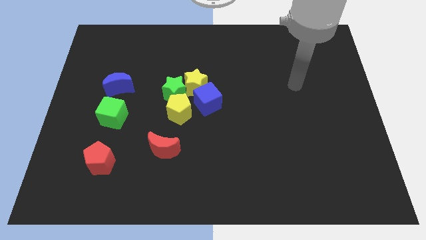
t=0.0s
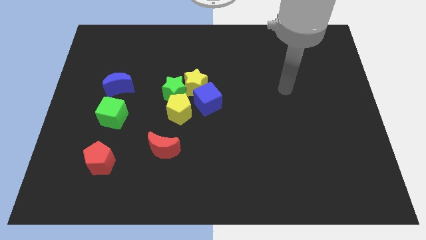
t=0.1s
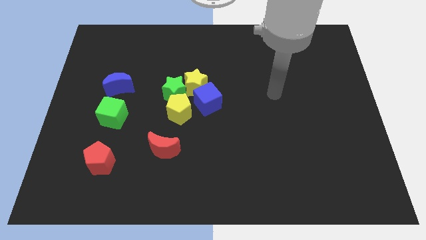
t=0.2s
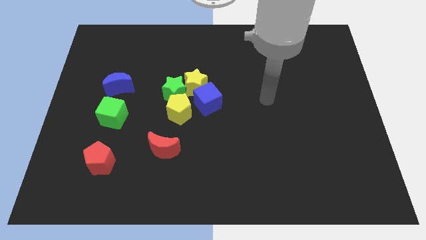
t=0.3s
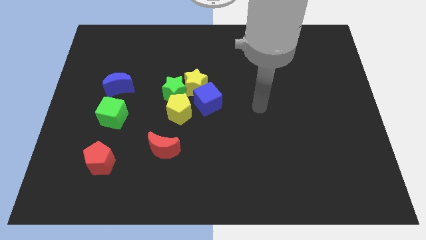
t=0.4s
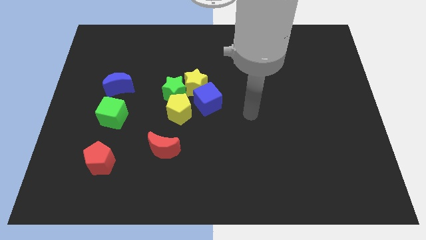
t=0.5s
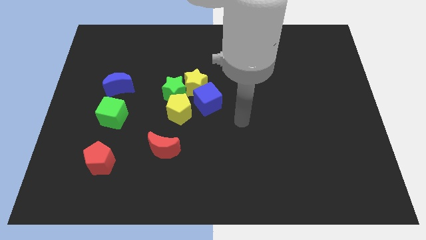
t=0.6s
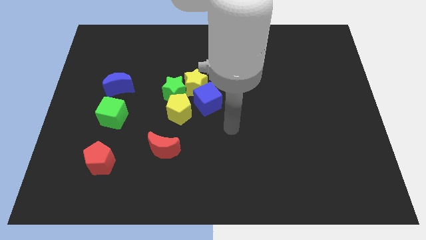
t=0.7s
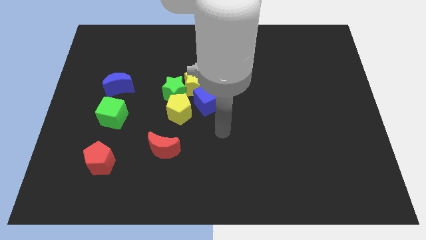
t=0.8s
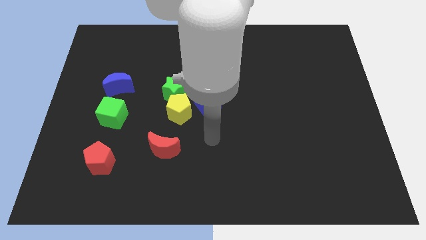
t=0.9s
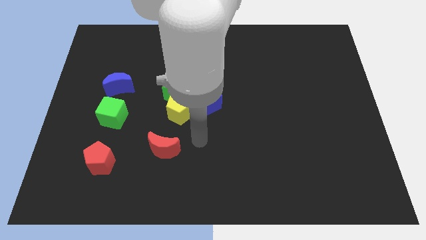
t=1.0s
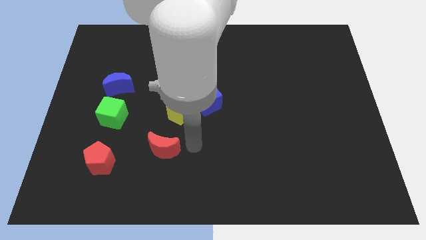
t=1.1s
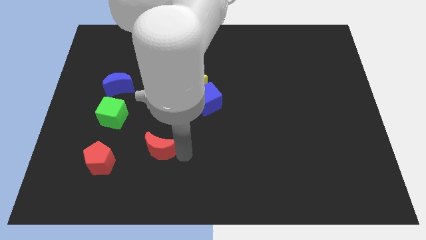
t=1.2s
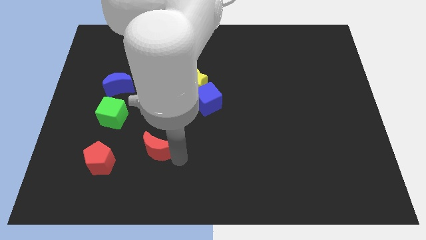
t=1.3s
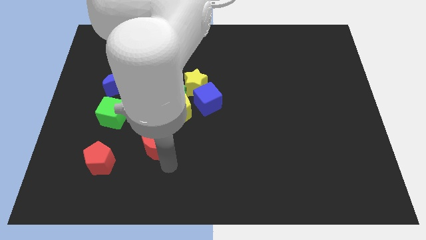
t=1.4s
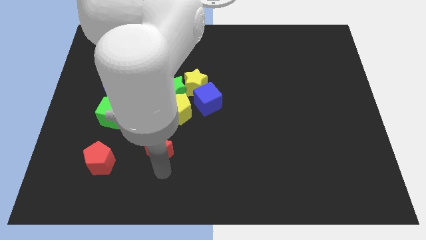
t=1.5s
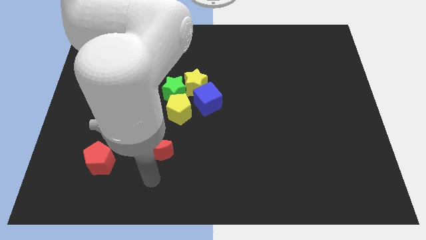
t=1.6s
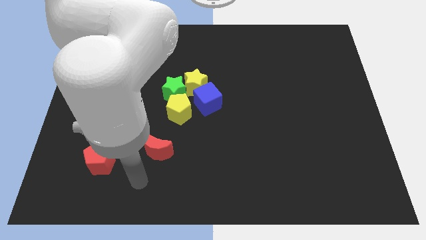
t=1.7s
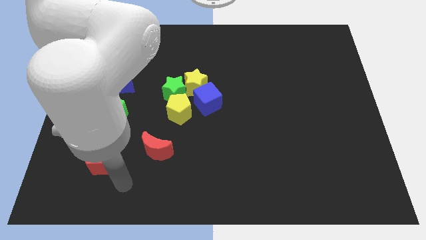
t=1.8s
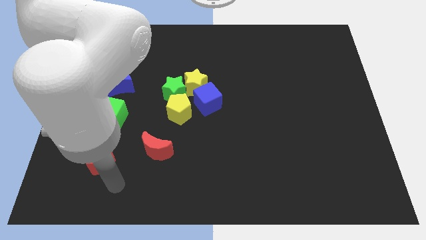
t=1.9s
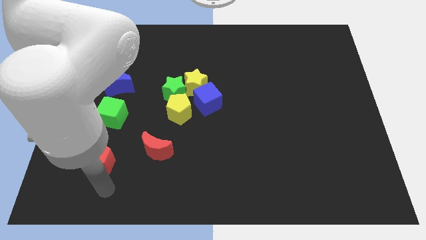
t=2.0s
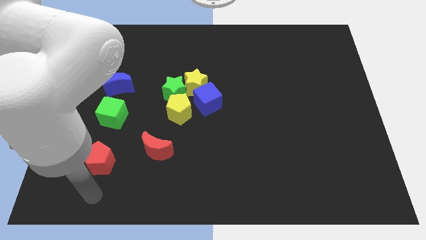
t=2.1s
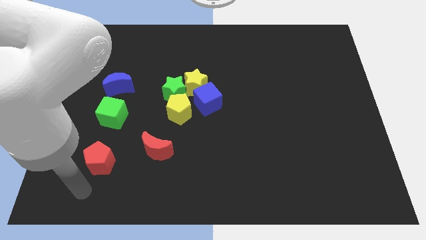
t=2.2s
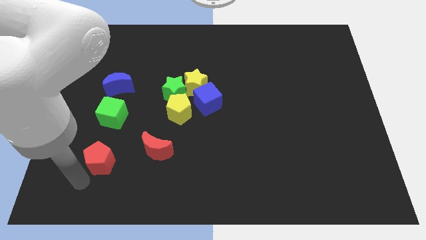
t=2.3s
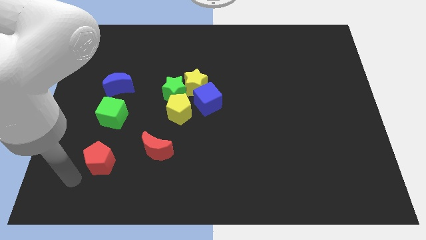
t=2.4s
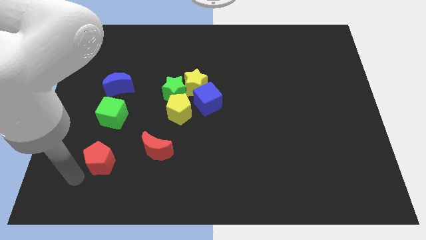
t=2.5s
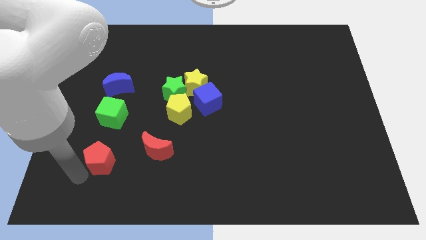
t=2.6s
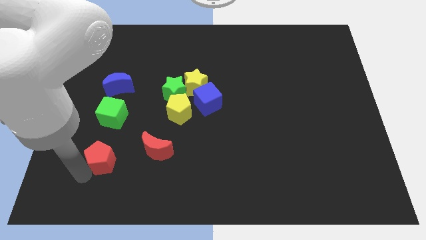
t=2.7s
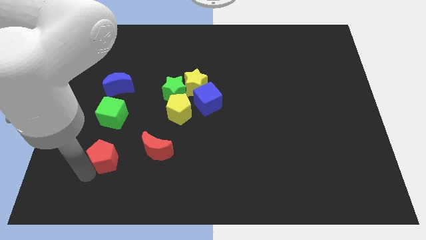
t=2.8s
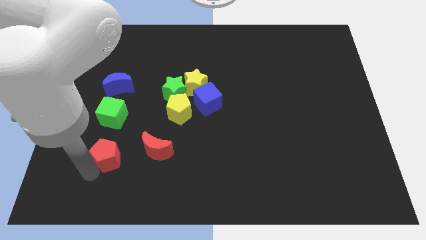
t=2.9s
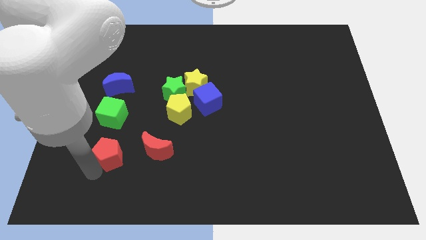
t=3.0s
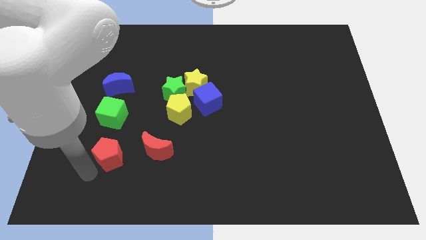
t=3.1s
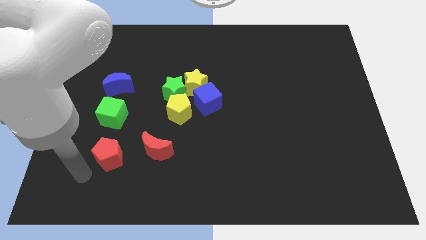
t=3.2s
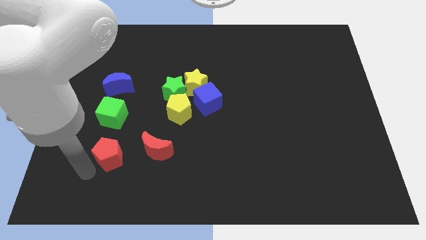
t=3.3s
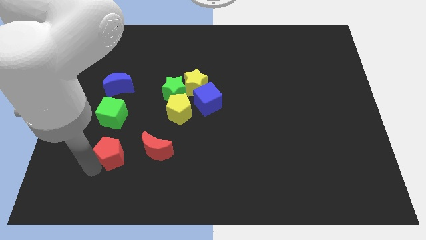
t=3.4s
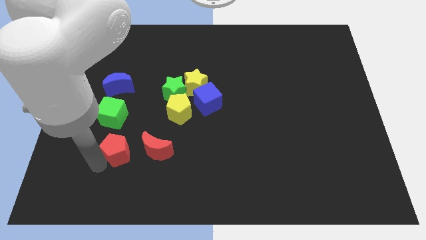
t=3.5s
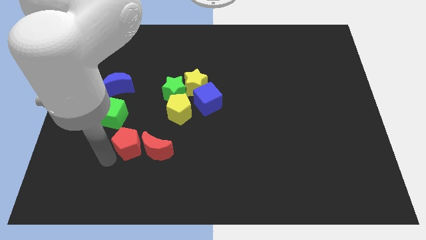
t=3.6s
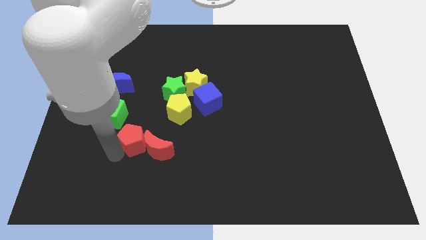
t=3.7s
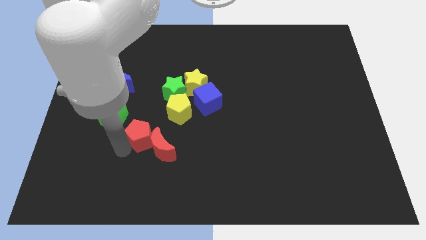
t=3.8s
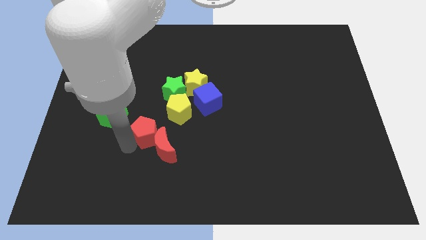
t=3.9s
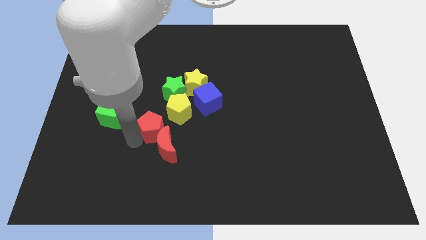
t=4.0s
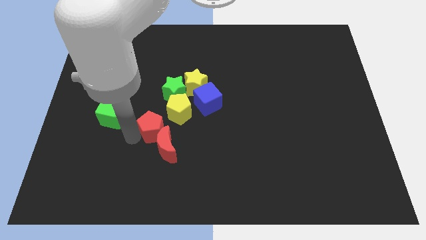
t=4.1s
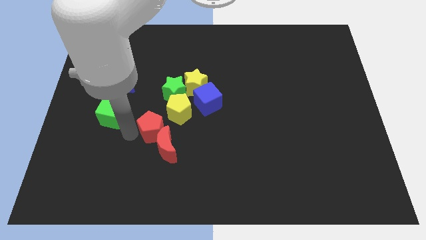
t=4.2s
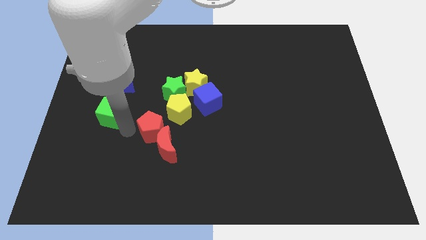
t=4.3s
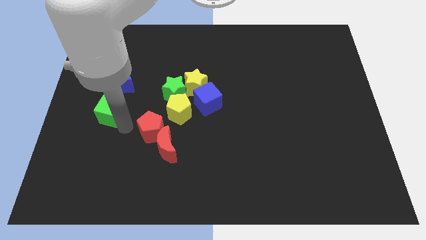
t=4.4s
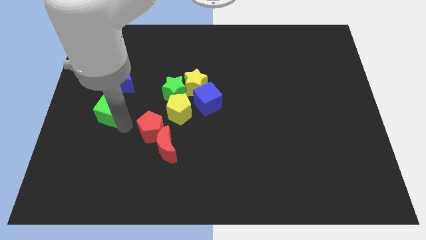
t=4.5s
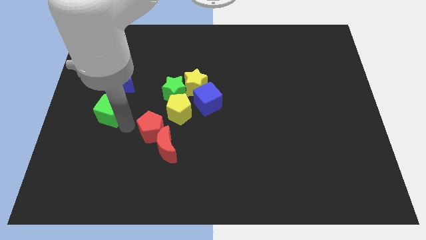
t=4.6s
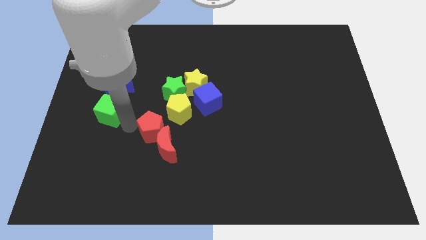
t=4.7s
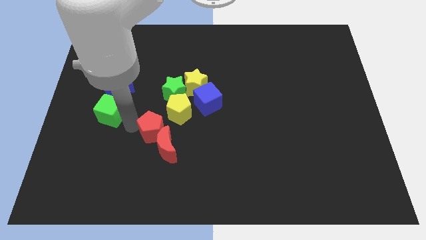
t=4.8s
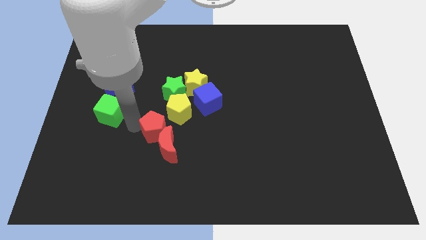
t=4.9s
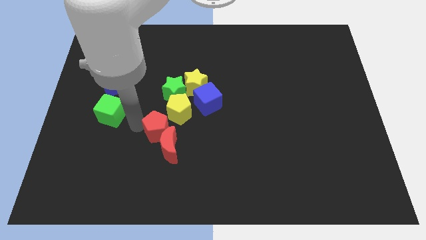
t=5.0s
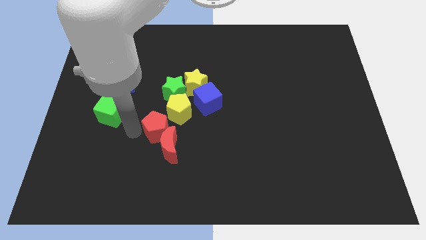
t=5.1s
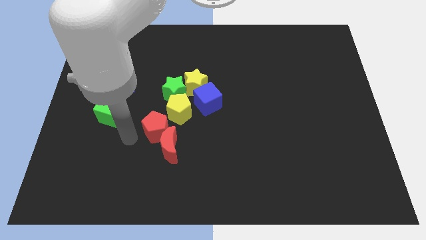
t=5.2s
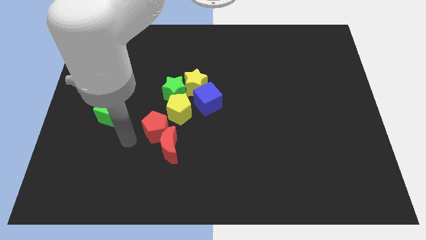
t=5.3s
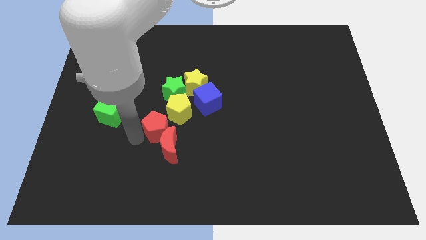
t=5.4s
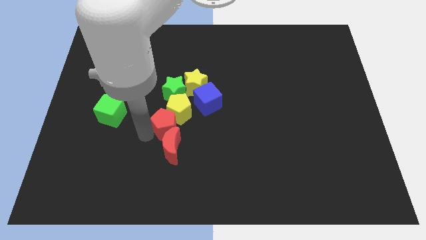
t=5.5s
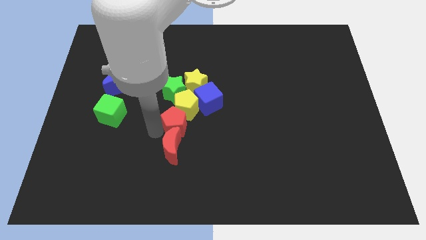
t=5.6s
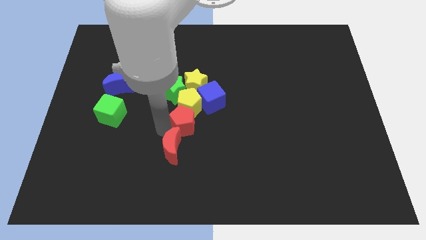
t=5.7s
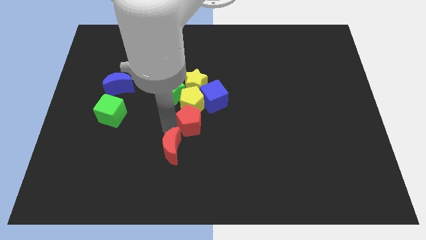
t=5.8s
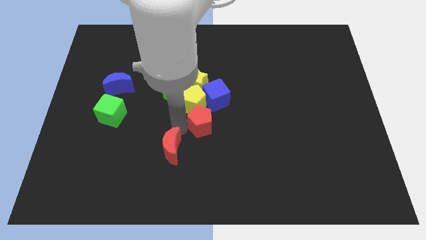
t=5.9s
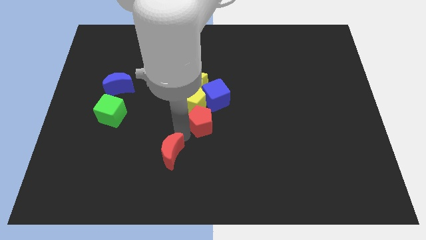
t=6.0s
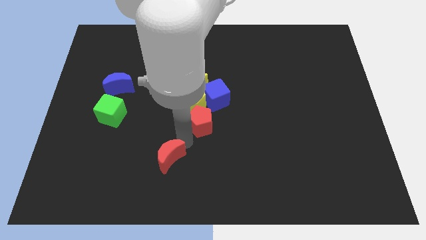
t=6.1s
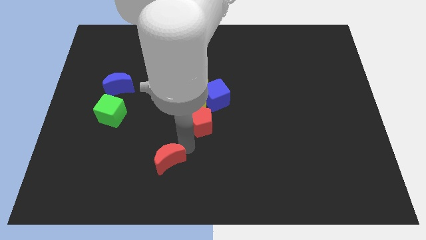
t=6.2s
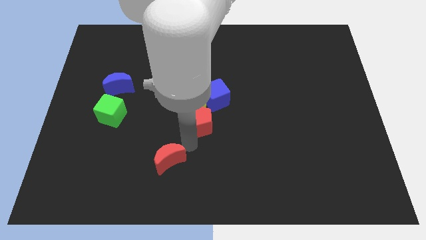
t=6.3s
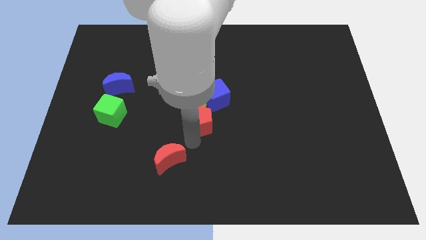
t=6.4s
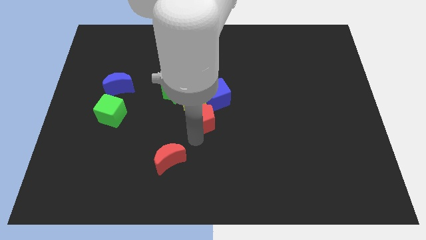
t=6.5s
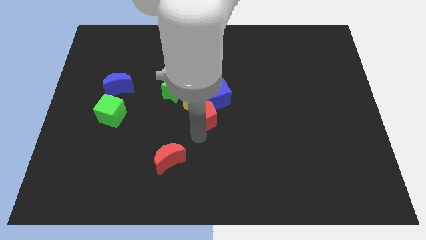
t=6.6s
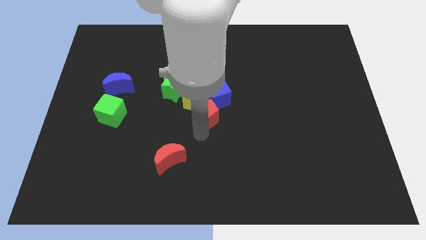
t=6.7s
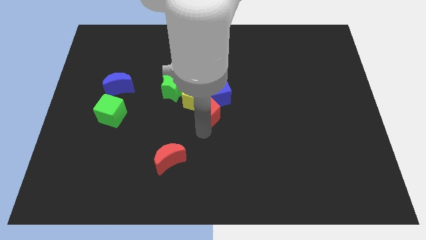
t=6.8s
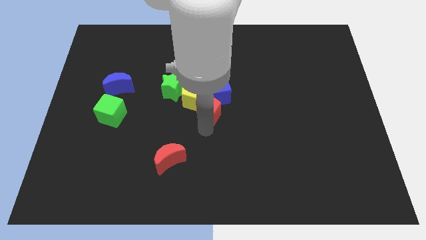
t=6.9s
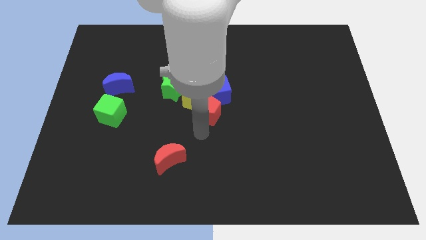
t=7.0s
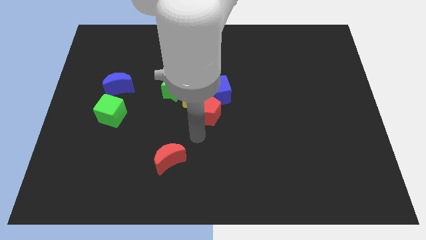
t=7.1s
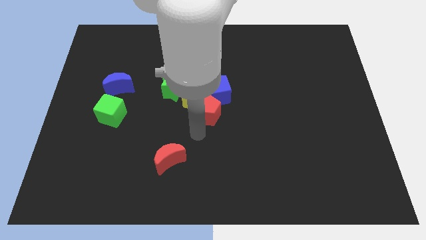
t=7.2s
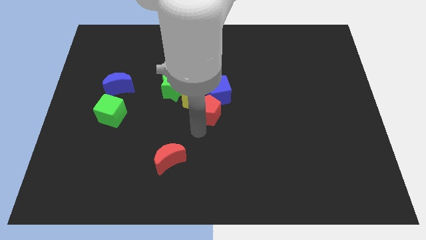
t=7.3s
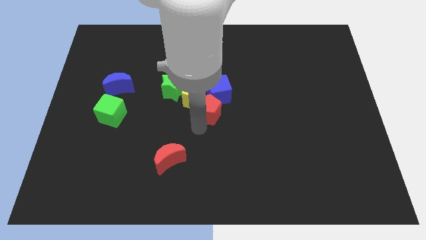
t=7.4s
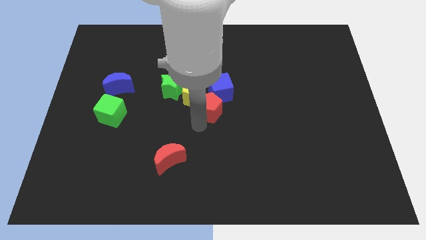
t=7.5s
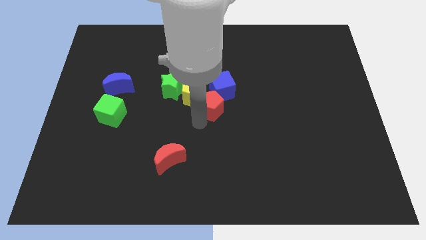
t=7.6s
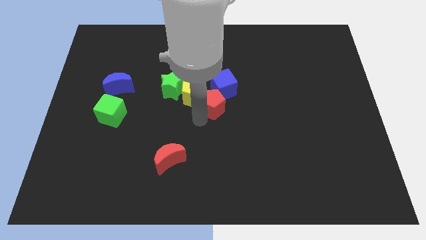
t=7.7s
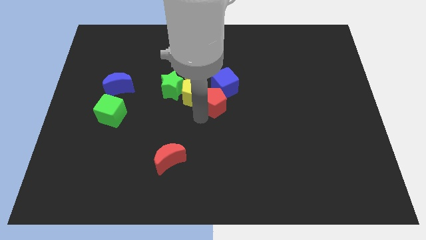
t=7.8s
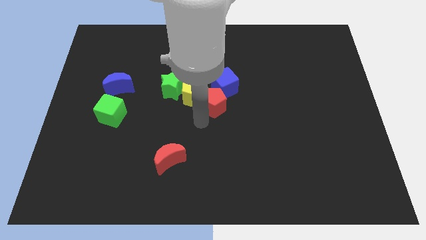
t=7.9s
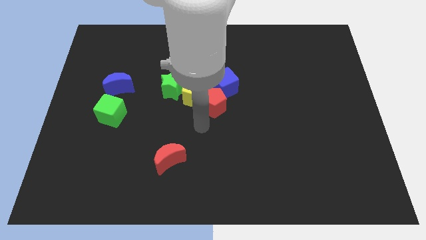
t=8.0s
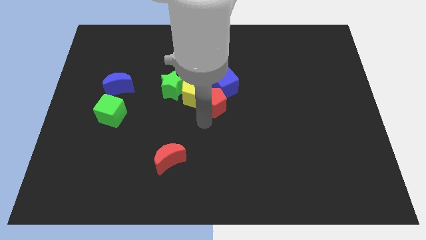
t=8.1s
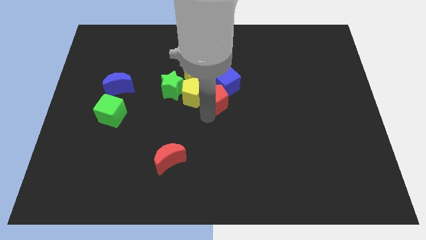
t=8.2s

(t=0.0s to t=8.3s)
put the red pentagon next to the blue cube
